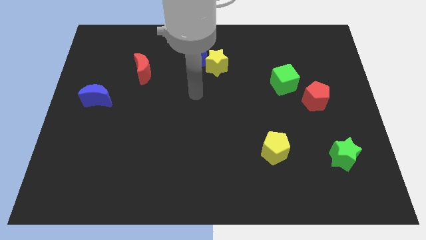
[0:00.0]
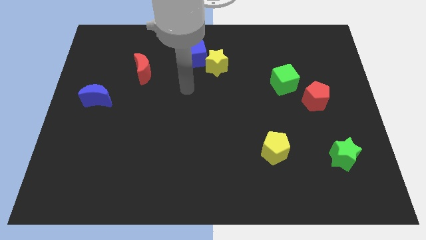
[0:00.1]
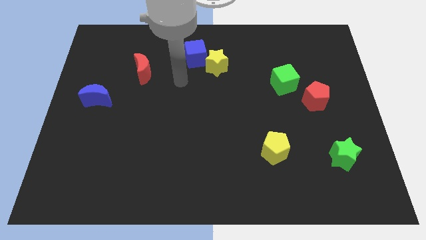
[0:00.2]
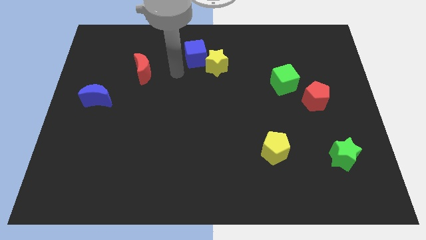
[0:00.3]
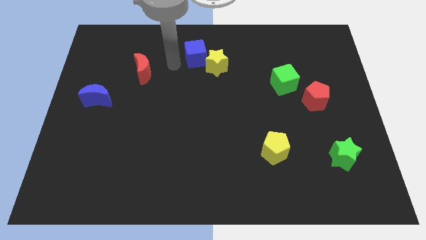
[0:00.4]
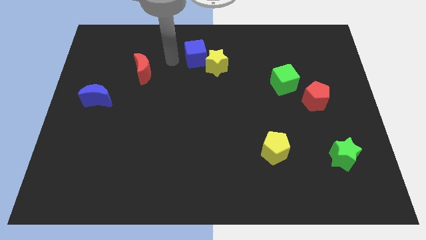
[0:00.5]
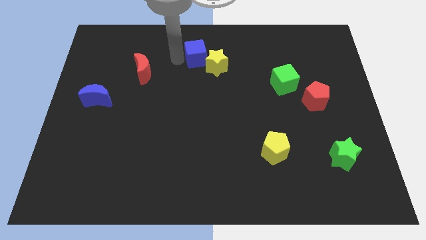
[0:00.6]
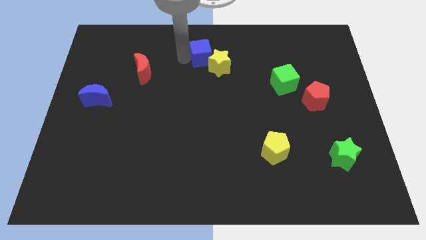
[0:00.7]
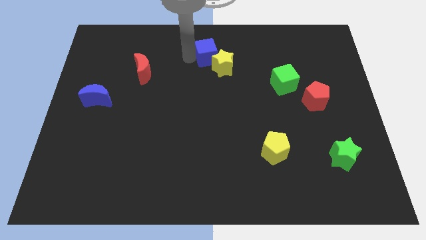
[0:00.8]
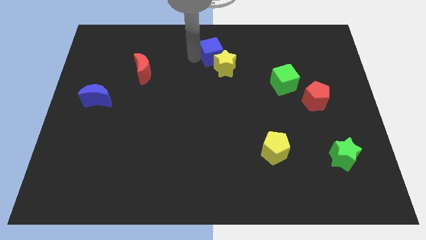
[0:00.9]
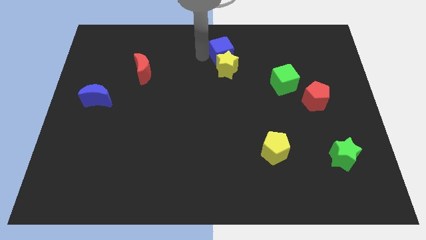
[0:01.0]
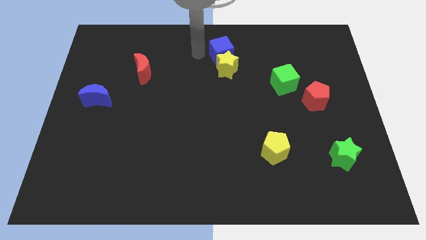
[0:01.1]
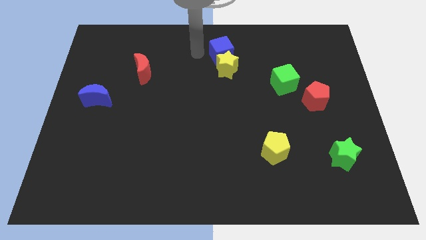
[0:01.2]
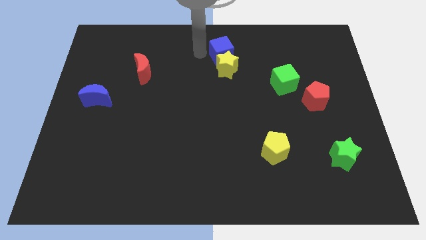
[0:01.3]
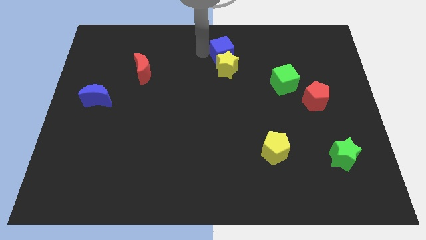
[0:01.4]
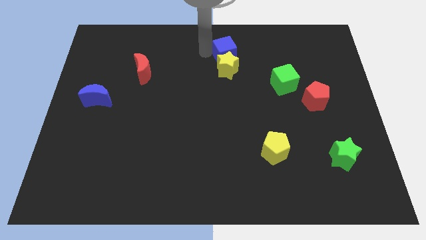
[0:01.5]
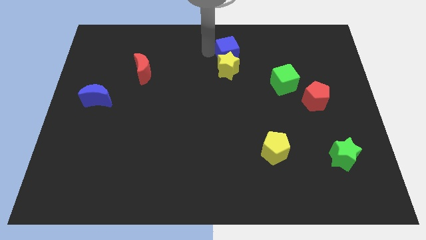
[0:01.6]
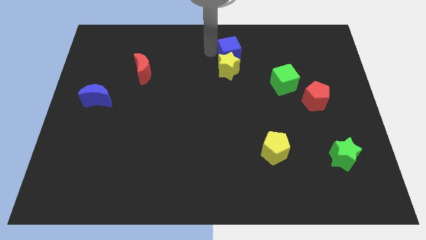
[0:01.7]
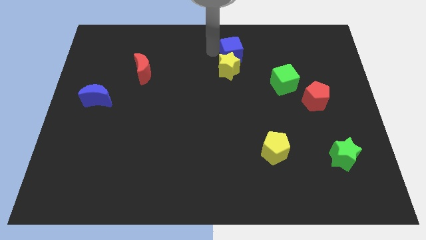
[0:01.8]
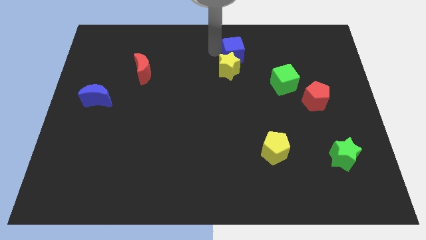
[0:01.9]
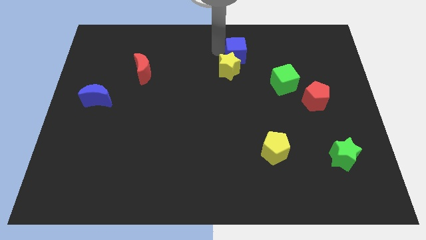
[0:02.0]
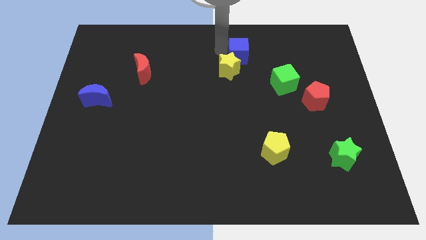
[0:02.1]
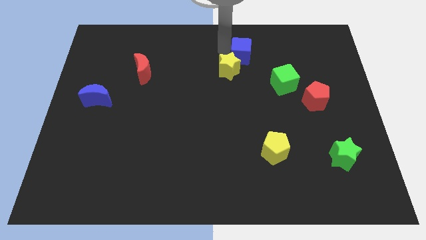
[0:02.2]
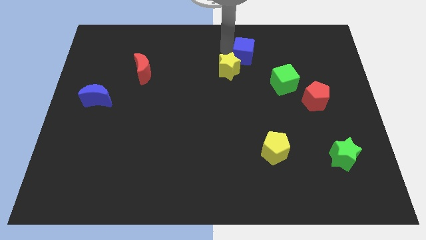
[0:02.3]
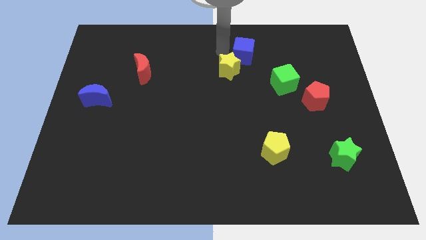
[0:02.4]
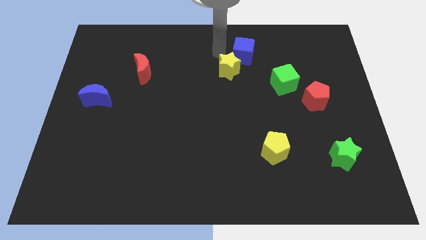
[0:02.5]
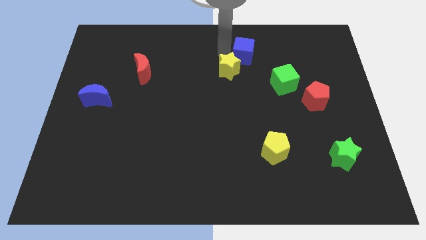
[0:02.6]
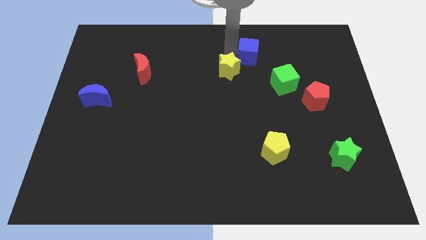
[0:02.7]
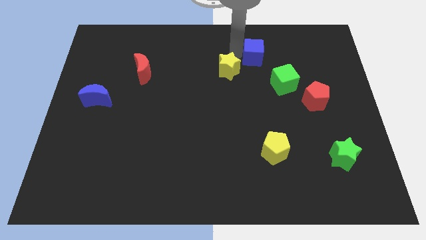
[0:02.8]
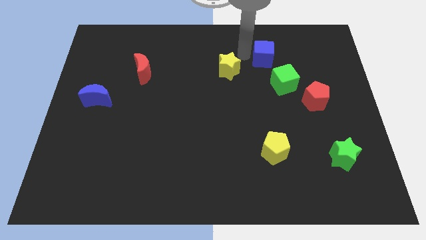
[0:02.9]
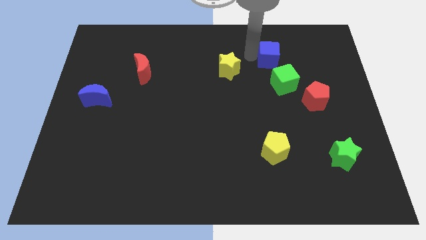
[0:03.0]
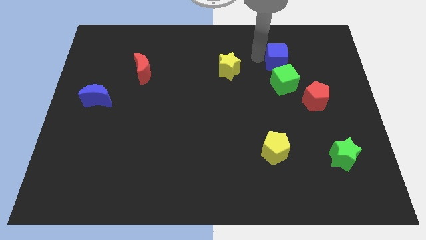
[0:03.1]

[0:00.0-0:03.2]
slide the blue cube right

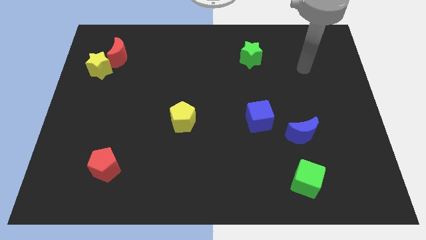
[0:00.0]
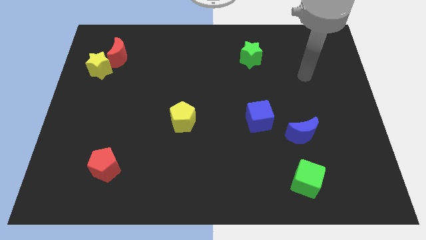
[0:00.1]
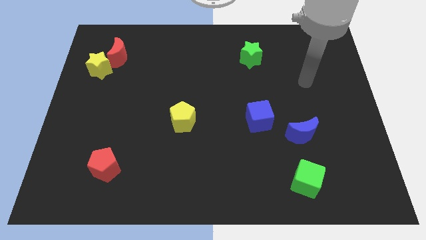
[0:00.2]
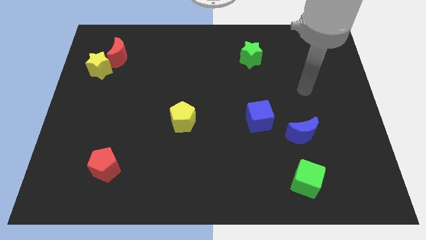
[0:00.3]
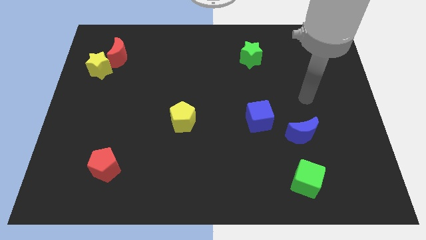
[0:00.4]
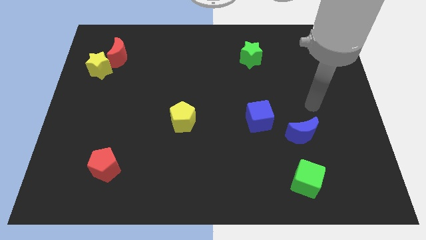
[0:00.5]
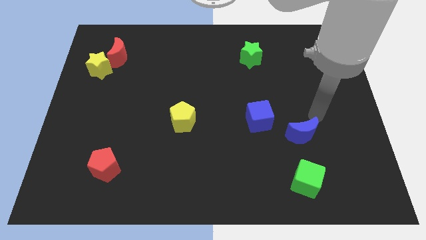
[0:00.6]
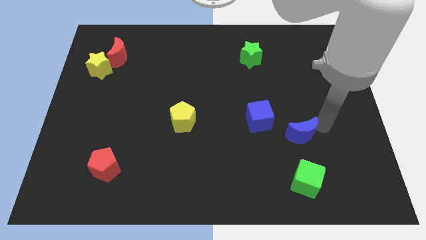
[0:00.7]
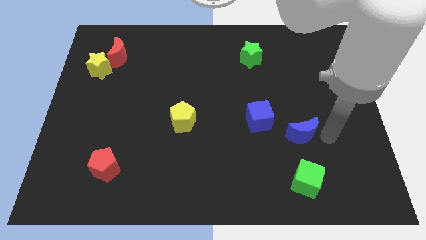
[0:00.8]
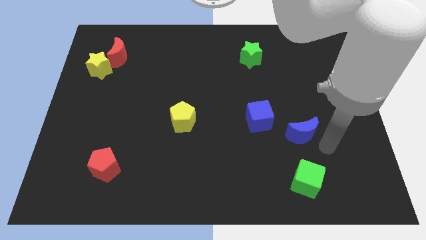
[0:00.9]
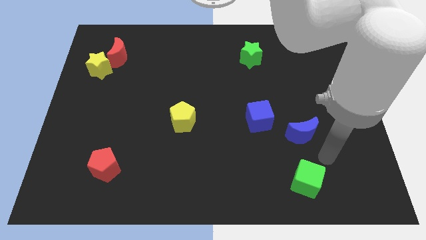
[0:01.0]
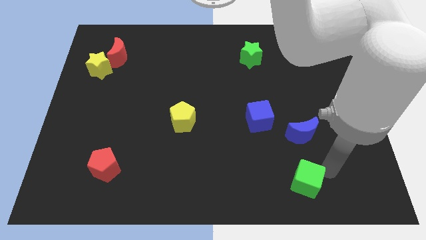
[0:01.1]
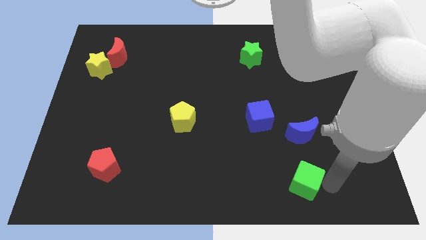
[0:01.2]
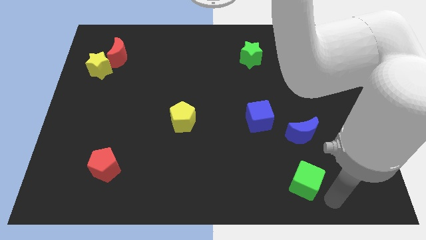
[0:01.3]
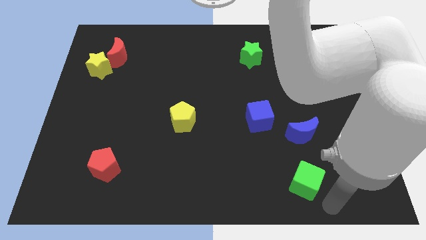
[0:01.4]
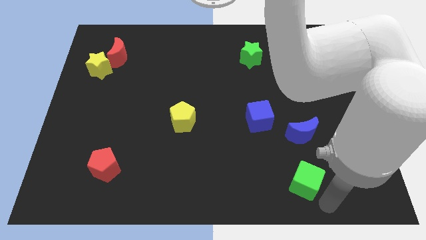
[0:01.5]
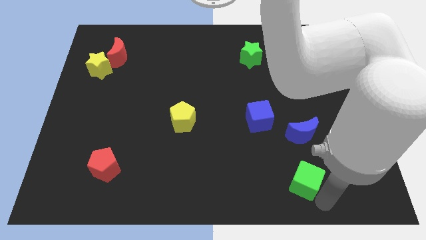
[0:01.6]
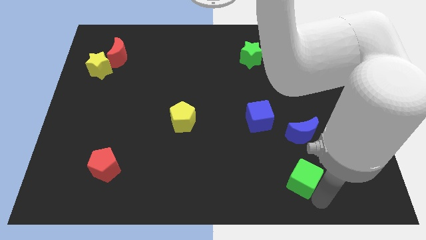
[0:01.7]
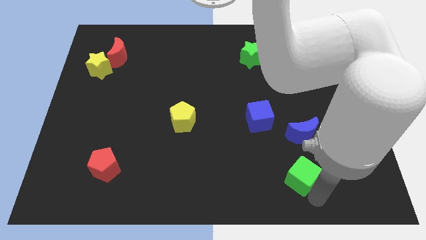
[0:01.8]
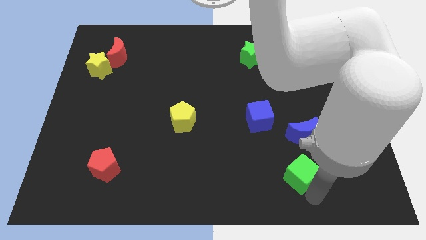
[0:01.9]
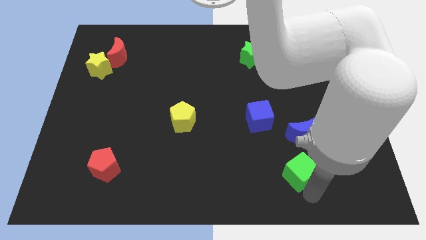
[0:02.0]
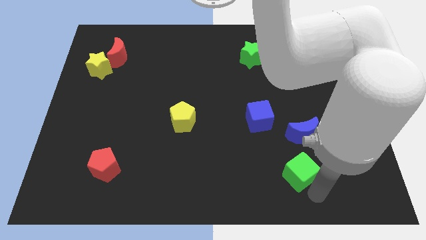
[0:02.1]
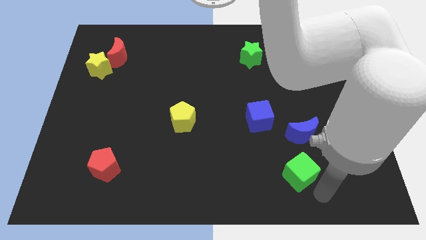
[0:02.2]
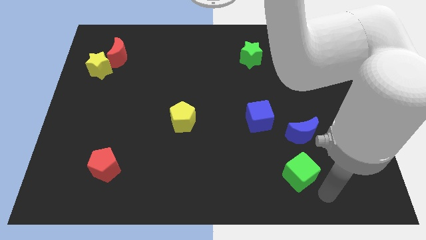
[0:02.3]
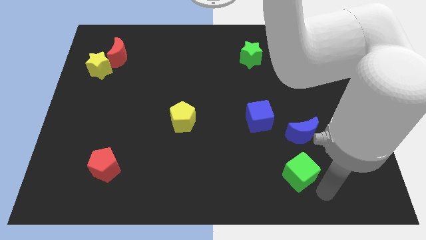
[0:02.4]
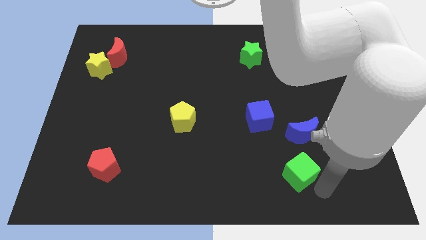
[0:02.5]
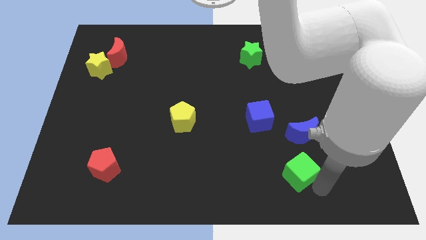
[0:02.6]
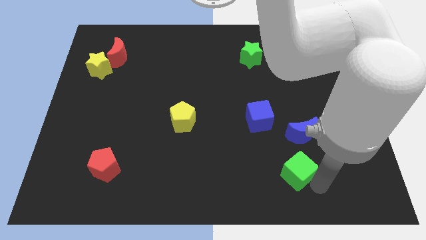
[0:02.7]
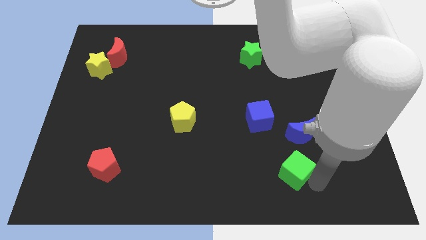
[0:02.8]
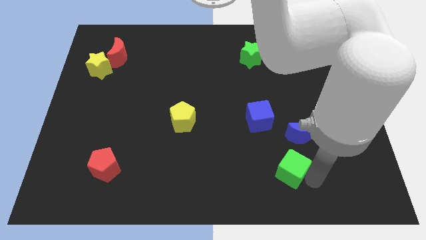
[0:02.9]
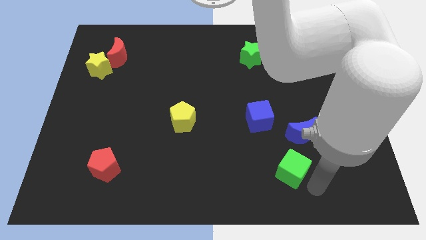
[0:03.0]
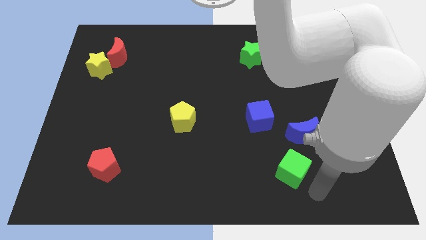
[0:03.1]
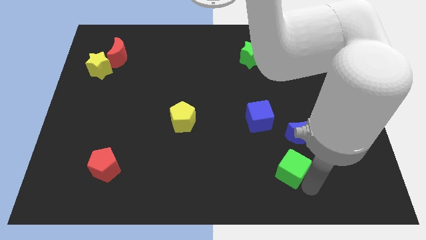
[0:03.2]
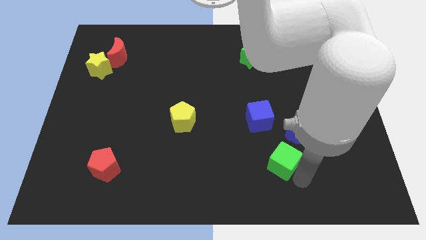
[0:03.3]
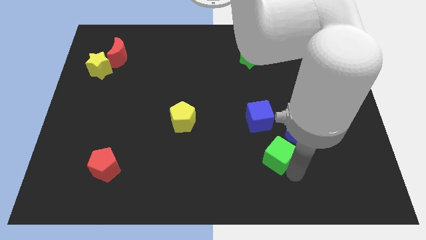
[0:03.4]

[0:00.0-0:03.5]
slide the green cube up and to the left diagonally a little

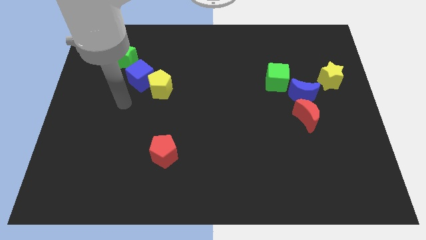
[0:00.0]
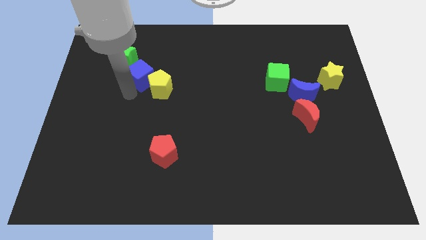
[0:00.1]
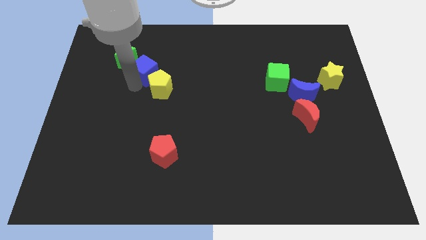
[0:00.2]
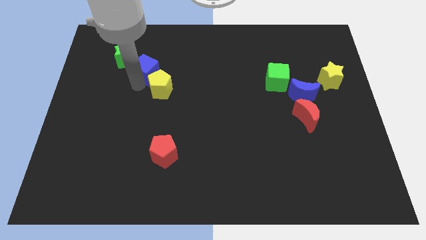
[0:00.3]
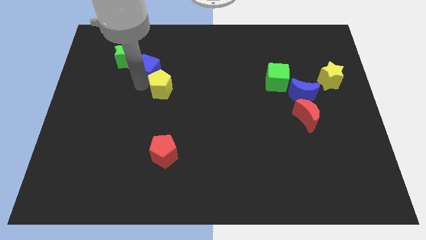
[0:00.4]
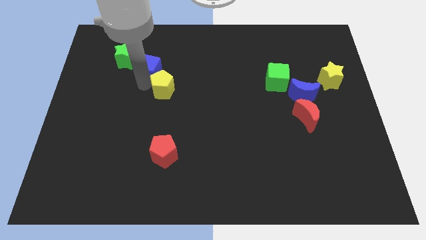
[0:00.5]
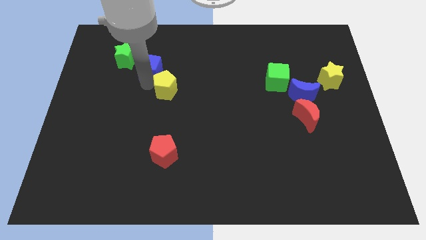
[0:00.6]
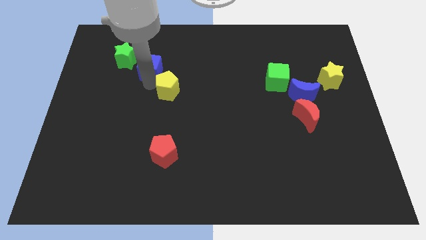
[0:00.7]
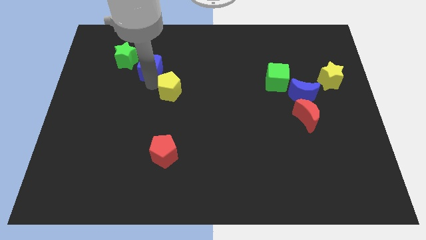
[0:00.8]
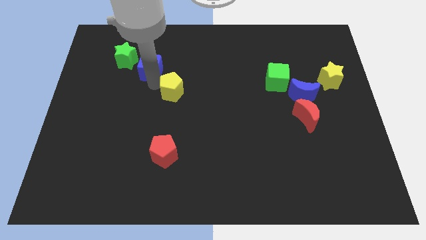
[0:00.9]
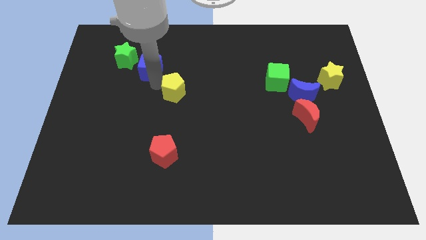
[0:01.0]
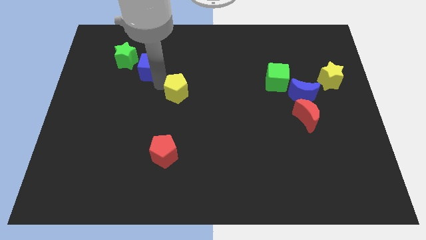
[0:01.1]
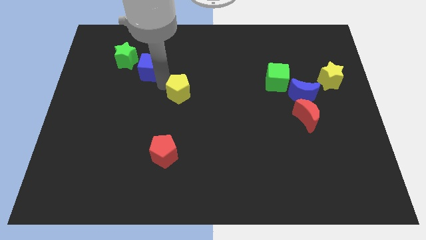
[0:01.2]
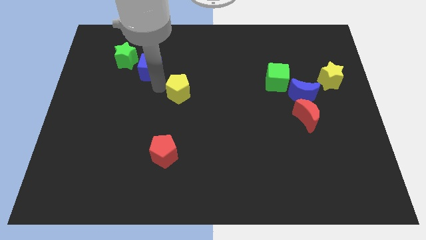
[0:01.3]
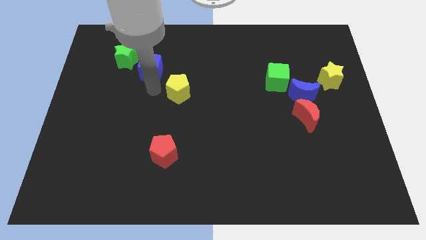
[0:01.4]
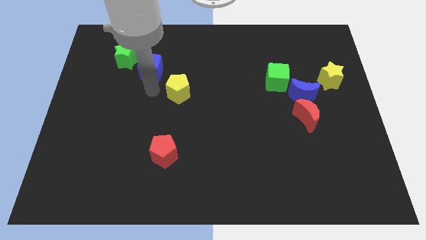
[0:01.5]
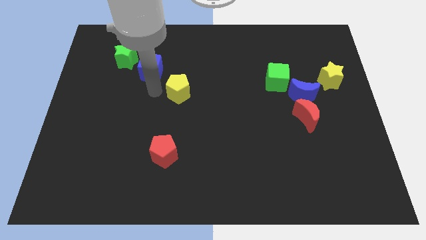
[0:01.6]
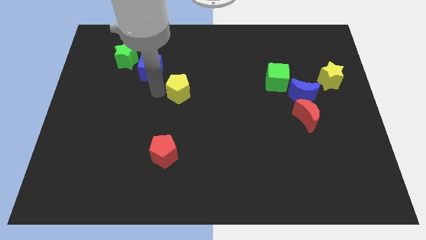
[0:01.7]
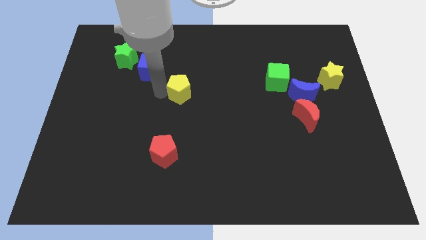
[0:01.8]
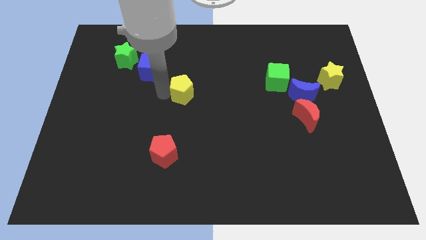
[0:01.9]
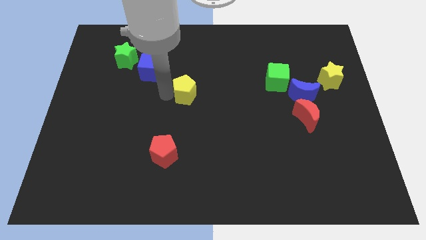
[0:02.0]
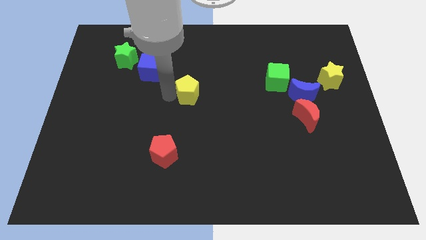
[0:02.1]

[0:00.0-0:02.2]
push the yellow pentagon right a little
